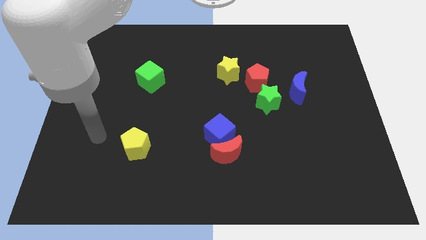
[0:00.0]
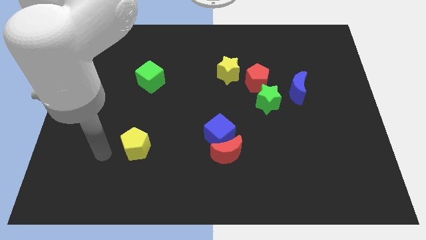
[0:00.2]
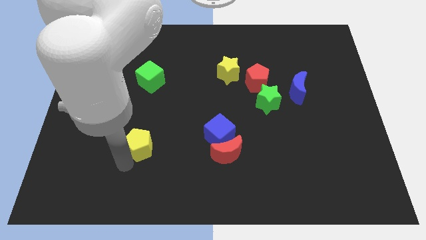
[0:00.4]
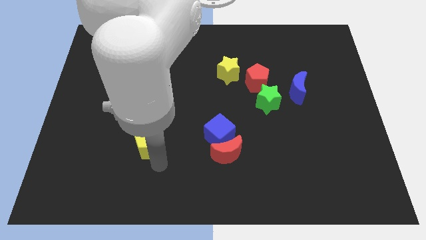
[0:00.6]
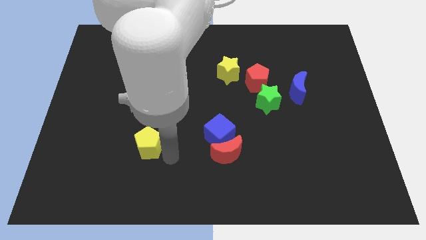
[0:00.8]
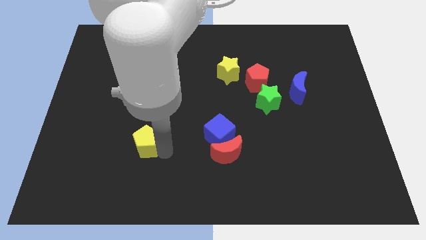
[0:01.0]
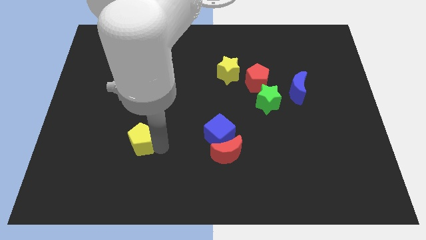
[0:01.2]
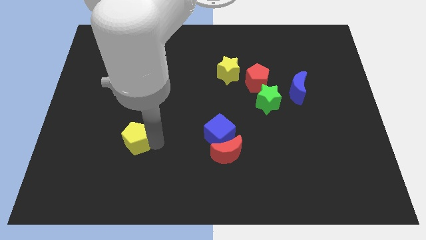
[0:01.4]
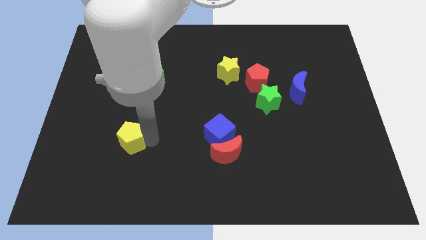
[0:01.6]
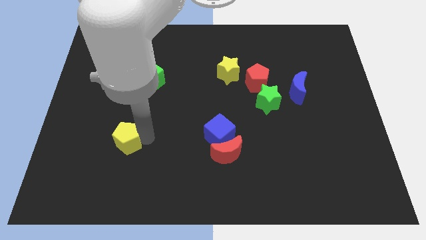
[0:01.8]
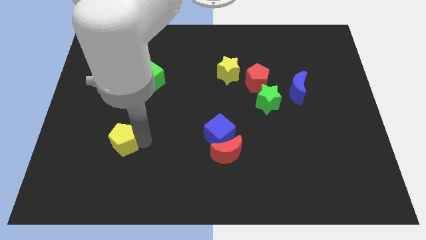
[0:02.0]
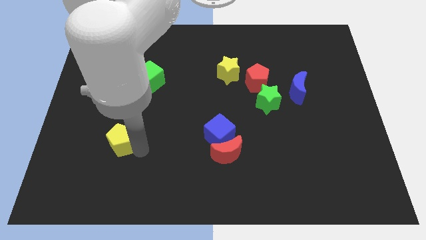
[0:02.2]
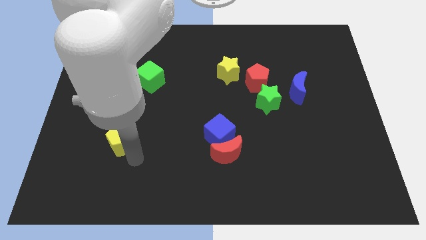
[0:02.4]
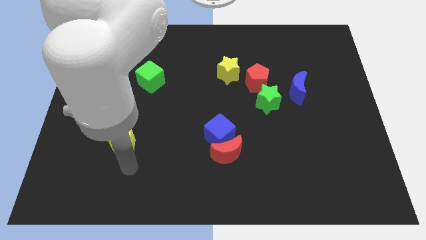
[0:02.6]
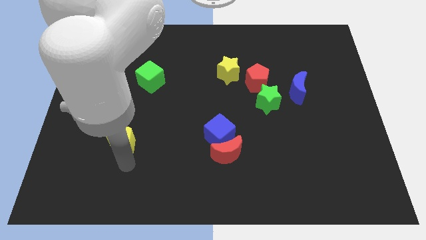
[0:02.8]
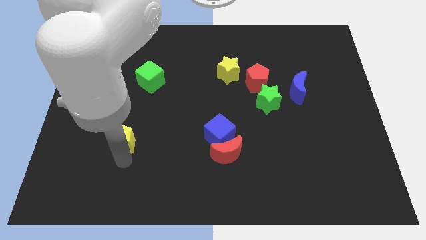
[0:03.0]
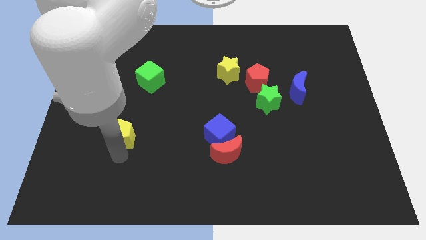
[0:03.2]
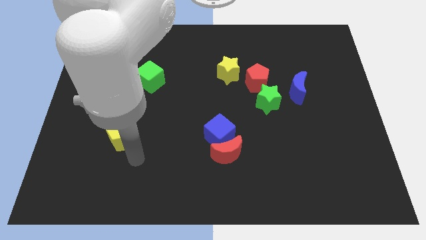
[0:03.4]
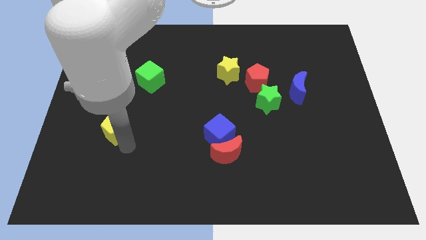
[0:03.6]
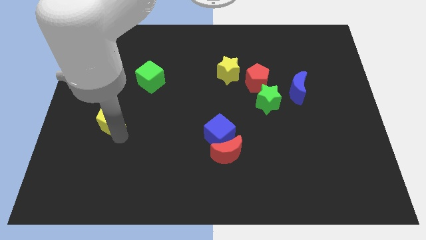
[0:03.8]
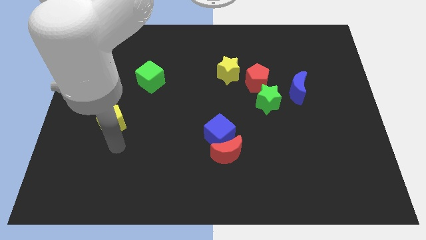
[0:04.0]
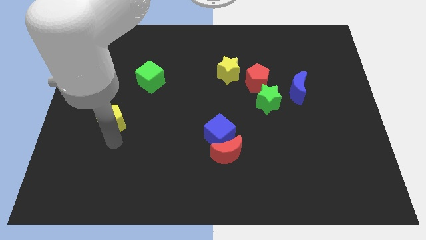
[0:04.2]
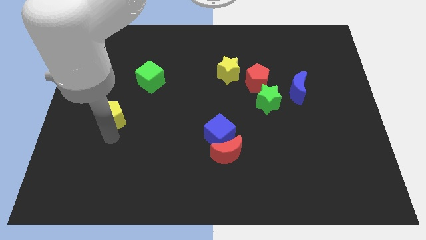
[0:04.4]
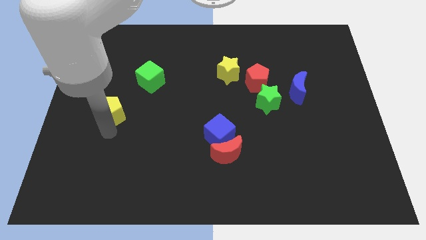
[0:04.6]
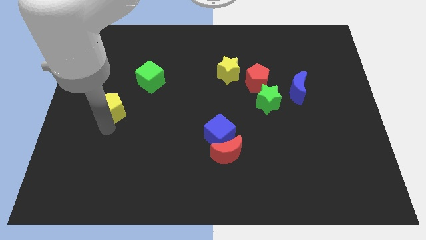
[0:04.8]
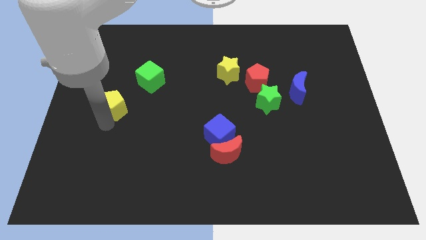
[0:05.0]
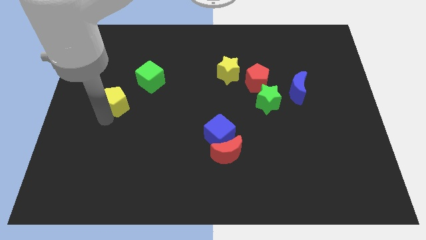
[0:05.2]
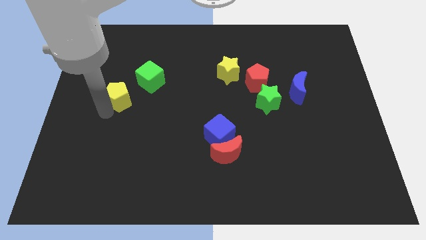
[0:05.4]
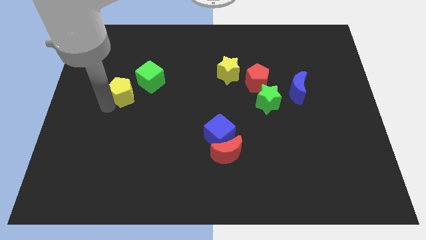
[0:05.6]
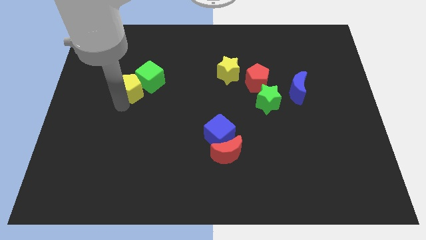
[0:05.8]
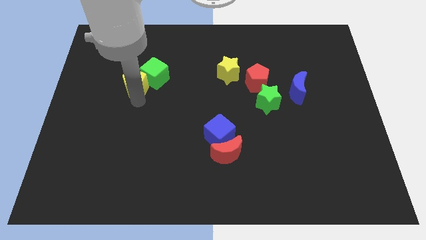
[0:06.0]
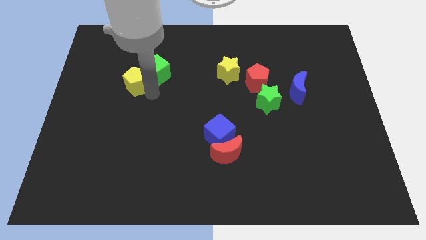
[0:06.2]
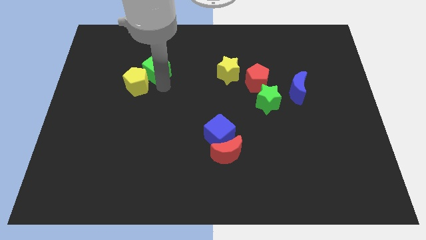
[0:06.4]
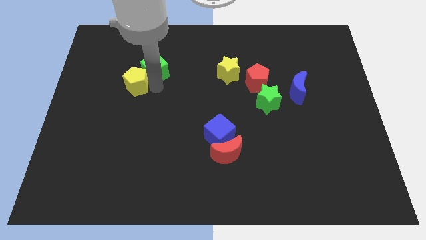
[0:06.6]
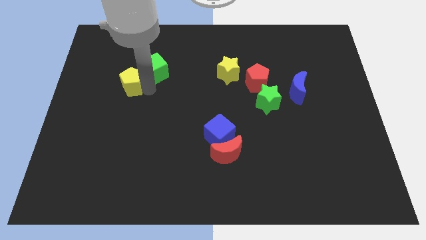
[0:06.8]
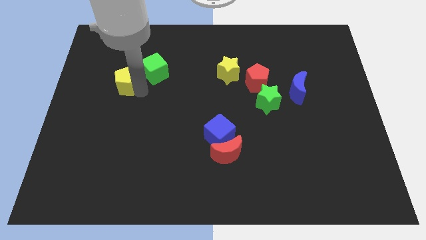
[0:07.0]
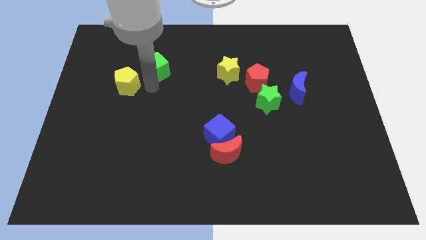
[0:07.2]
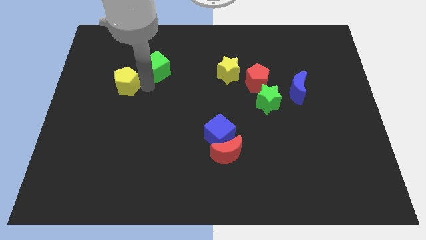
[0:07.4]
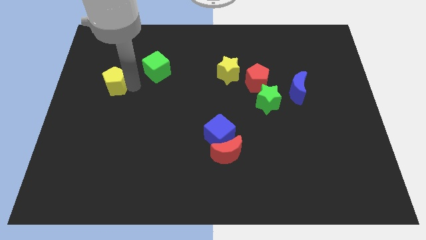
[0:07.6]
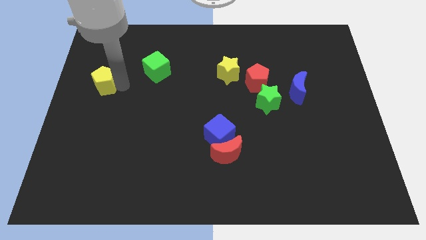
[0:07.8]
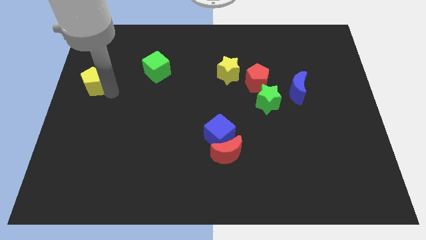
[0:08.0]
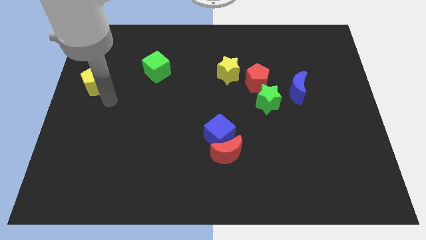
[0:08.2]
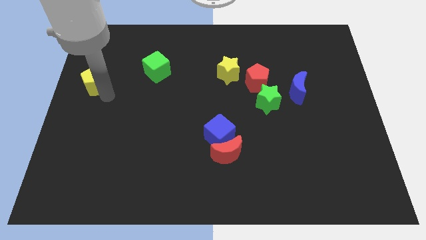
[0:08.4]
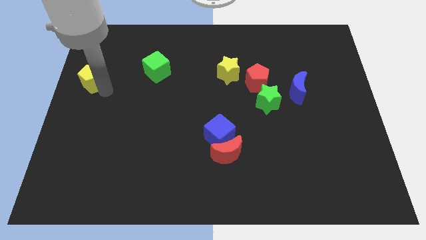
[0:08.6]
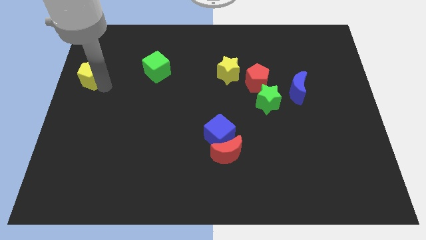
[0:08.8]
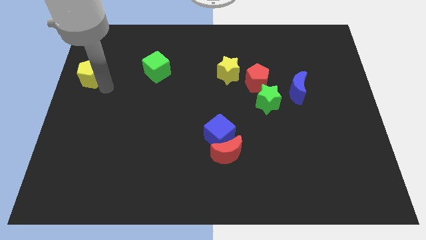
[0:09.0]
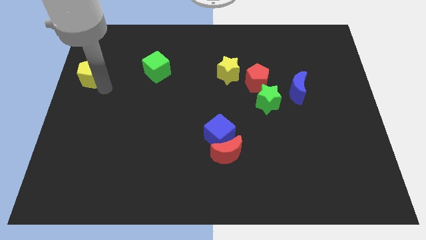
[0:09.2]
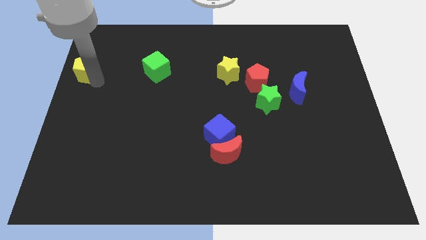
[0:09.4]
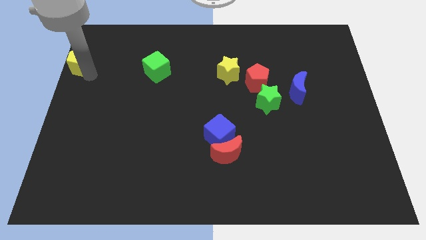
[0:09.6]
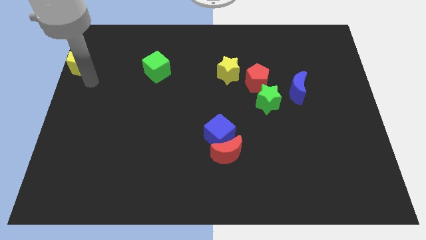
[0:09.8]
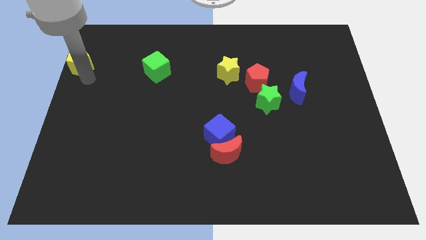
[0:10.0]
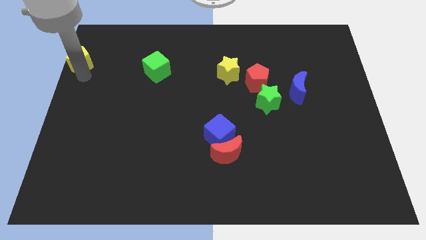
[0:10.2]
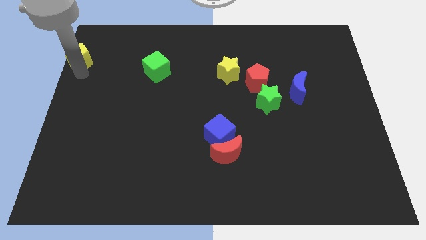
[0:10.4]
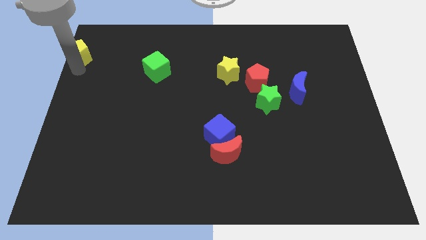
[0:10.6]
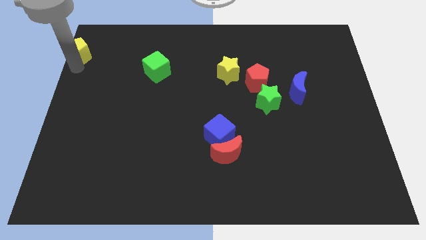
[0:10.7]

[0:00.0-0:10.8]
slide the yellow pentagon to the top left of the board

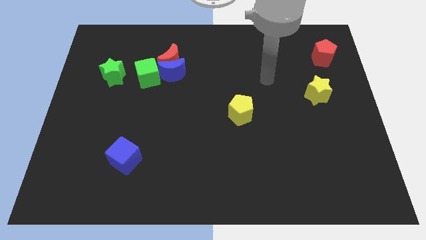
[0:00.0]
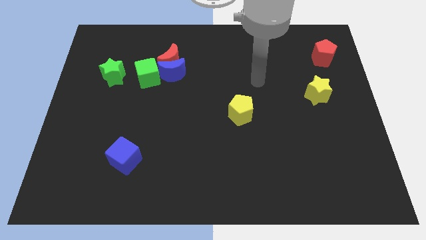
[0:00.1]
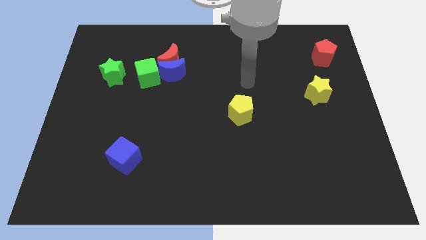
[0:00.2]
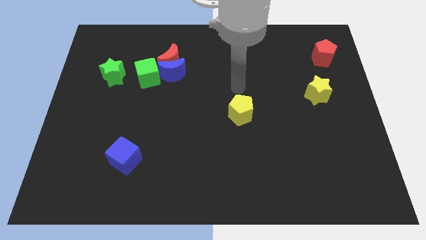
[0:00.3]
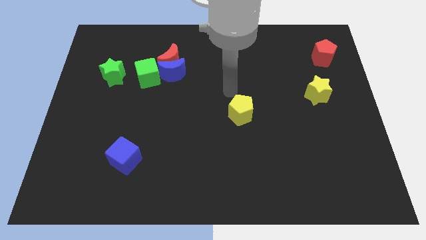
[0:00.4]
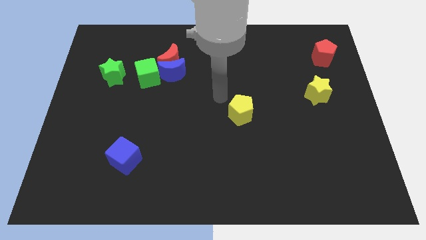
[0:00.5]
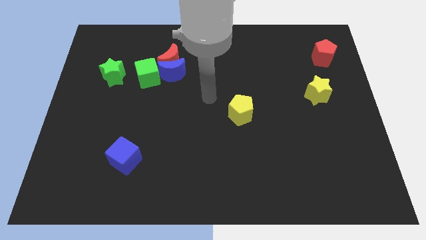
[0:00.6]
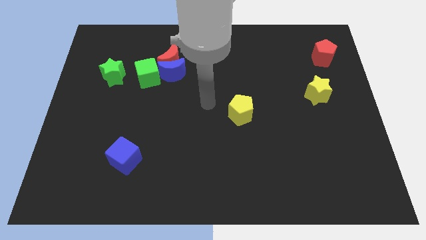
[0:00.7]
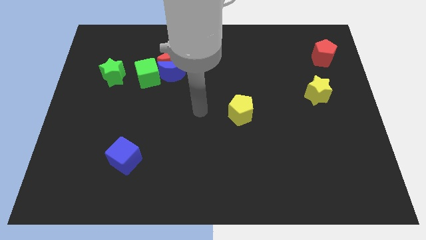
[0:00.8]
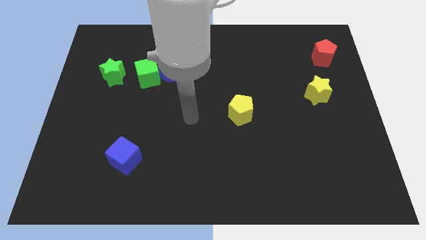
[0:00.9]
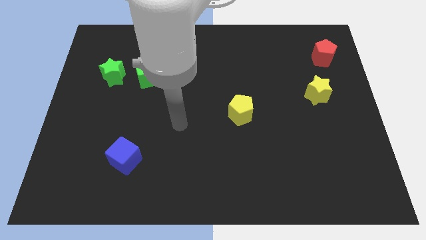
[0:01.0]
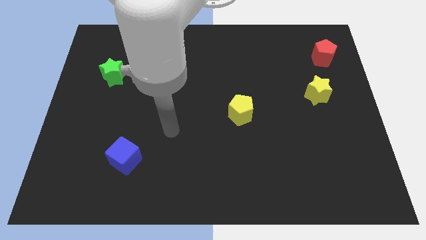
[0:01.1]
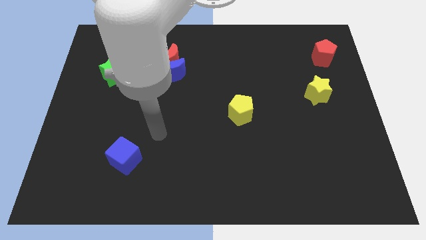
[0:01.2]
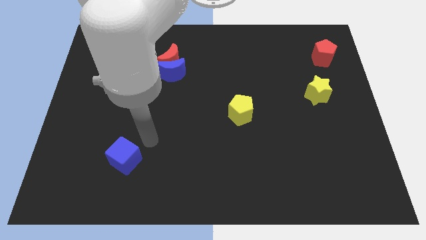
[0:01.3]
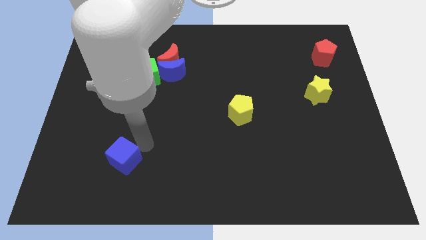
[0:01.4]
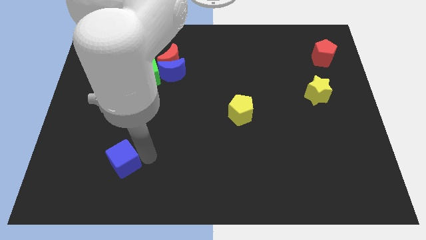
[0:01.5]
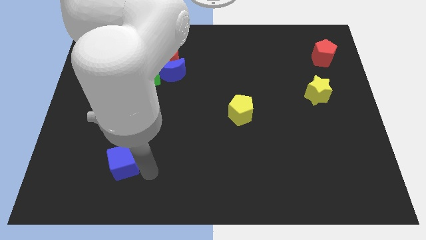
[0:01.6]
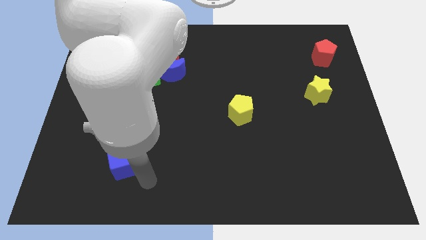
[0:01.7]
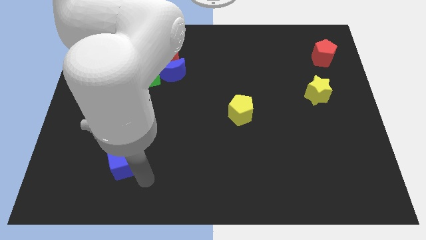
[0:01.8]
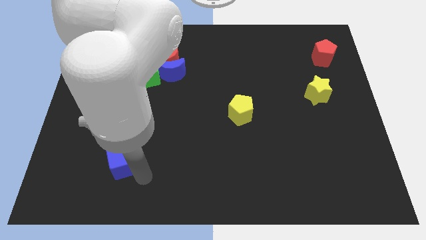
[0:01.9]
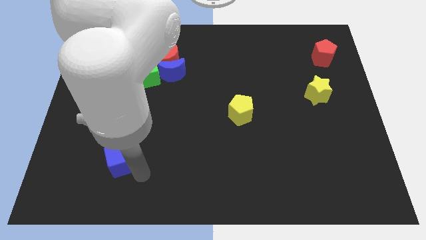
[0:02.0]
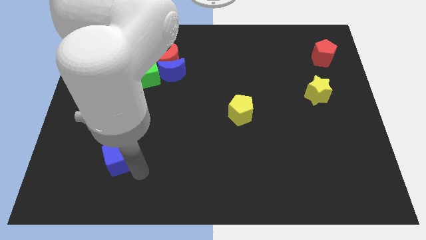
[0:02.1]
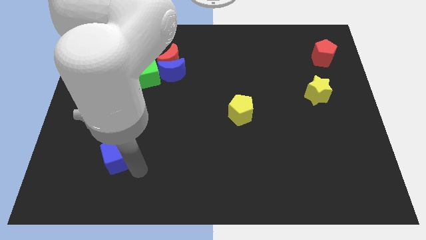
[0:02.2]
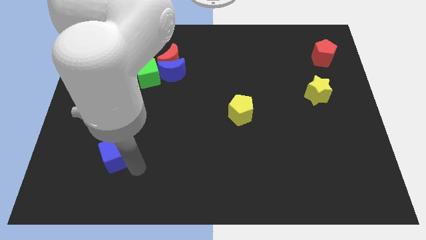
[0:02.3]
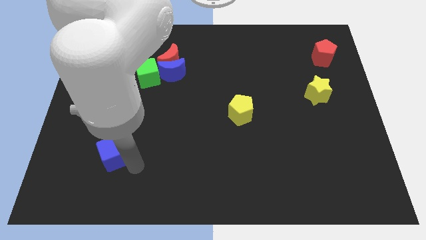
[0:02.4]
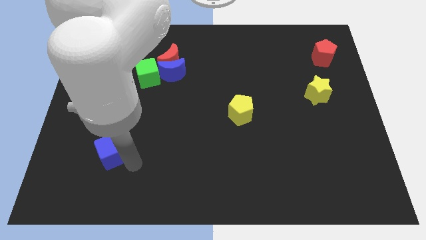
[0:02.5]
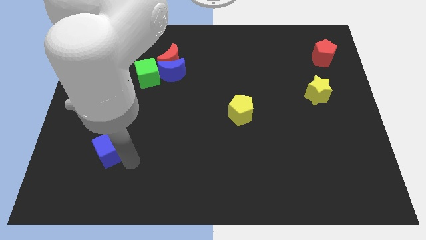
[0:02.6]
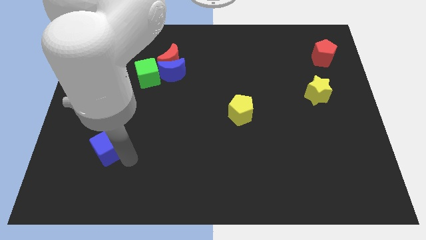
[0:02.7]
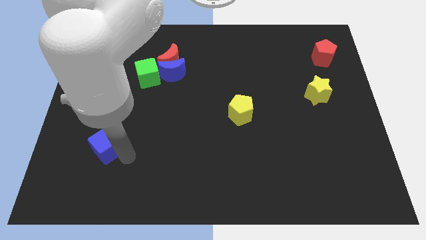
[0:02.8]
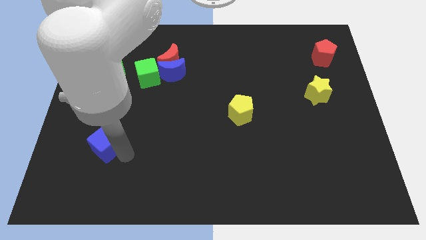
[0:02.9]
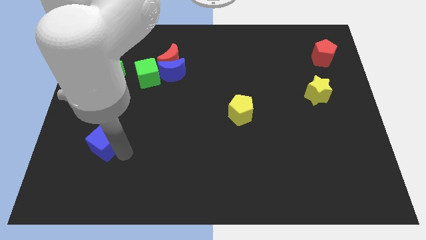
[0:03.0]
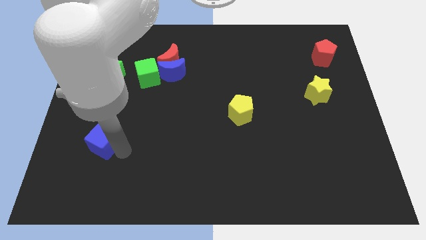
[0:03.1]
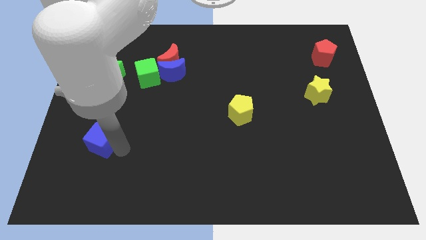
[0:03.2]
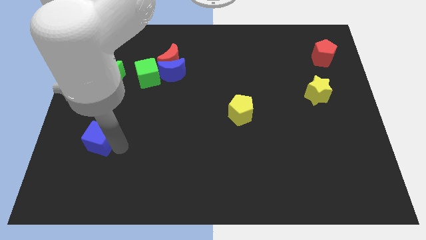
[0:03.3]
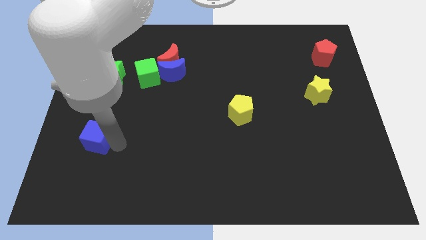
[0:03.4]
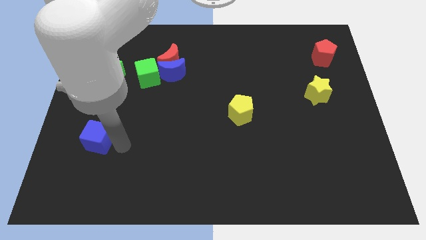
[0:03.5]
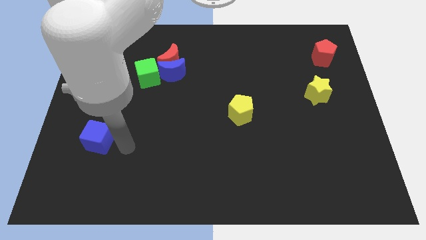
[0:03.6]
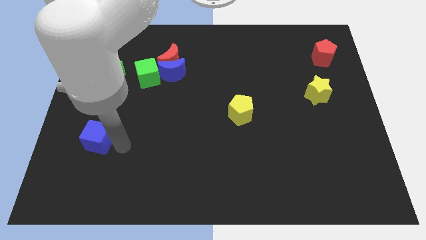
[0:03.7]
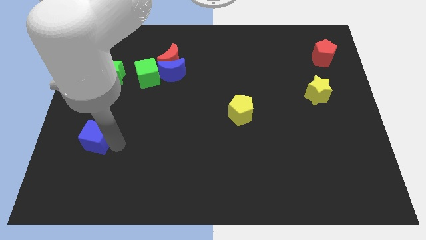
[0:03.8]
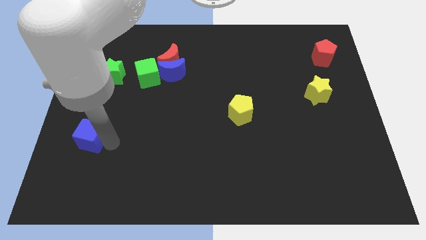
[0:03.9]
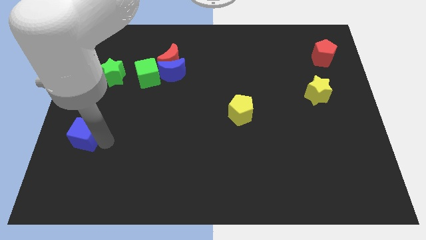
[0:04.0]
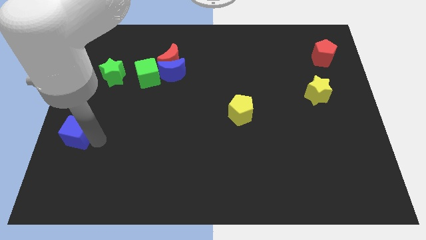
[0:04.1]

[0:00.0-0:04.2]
put the blue cube to the left side
